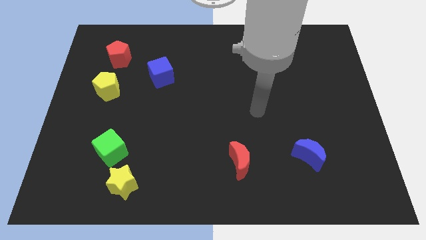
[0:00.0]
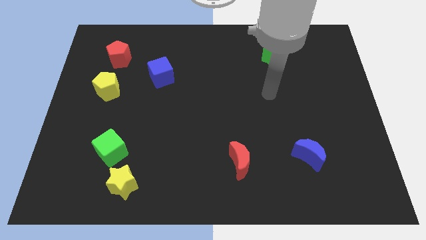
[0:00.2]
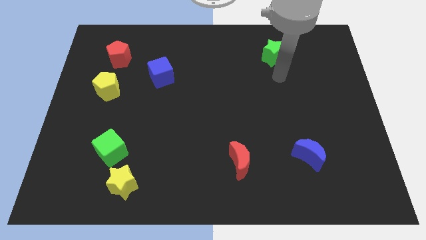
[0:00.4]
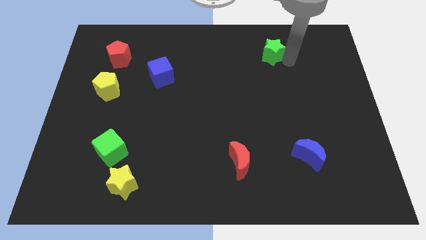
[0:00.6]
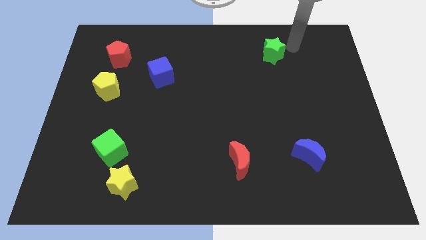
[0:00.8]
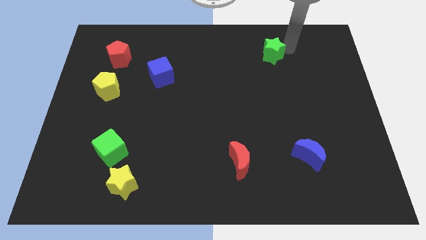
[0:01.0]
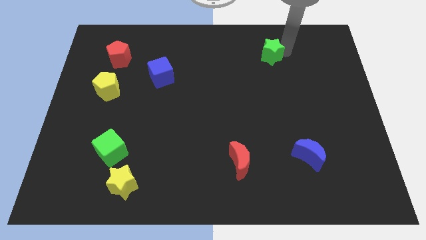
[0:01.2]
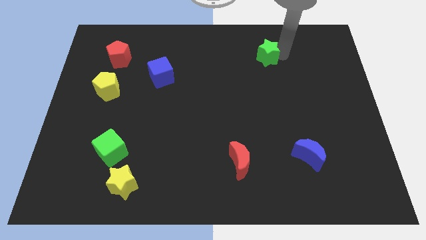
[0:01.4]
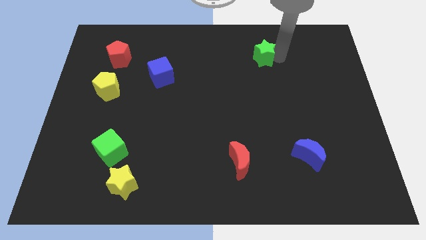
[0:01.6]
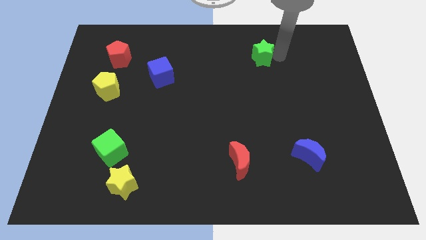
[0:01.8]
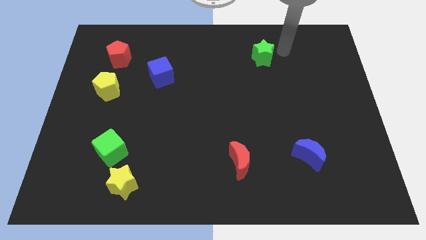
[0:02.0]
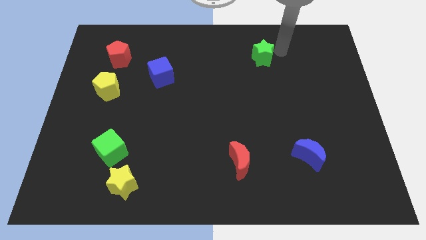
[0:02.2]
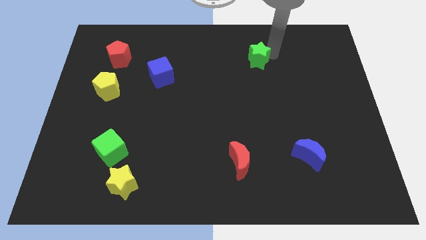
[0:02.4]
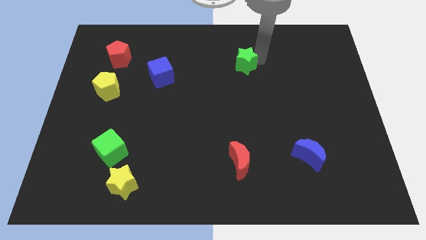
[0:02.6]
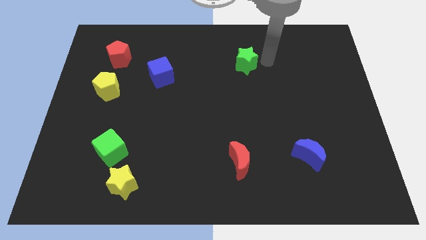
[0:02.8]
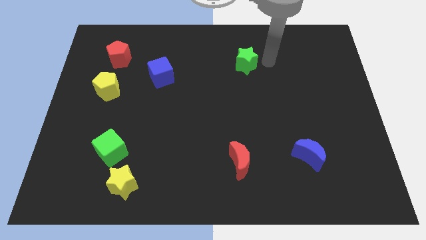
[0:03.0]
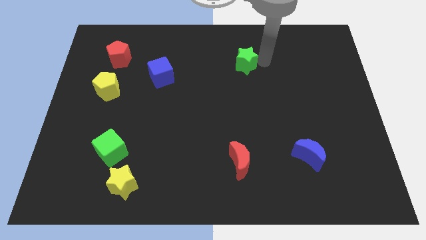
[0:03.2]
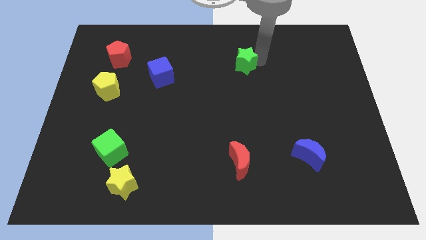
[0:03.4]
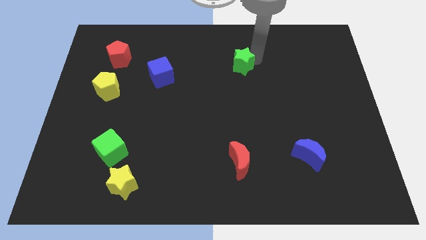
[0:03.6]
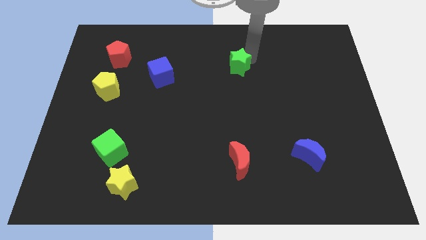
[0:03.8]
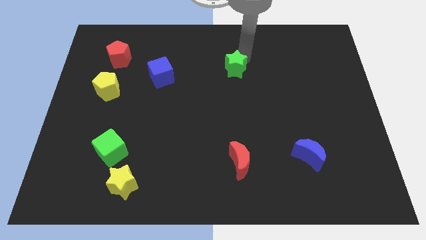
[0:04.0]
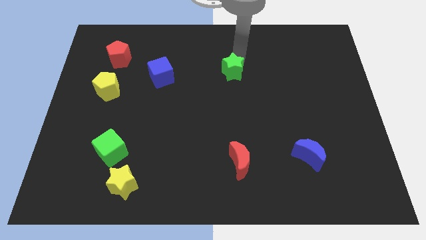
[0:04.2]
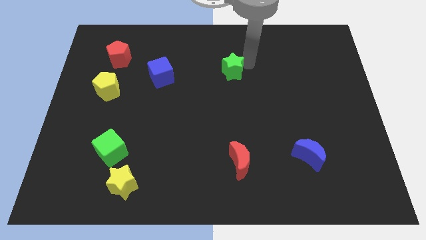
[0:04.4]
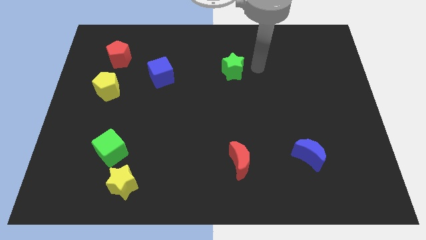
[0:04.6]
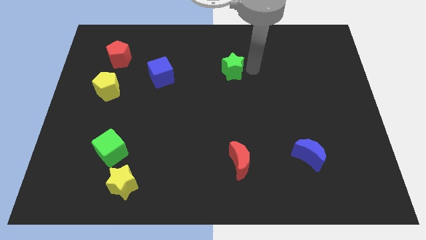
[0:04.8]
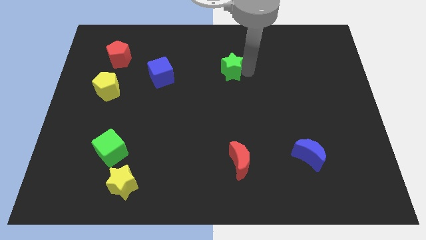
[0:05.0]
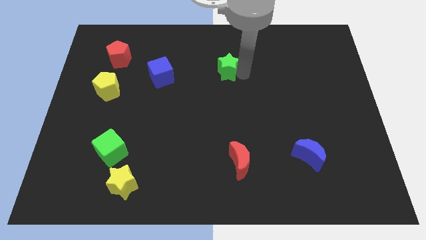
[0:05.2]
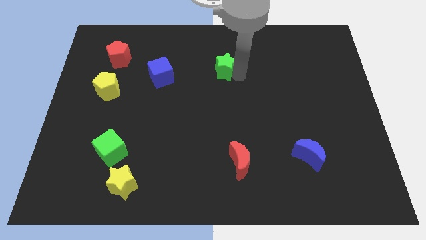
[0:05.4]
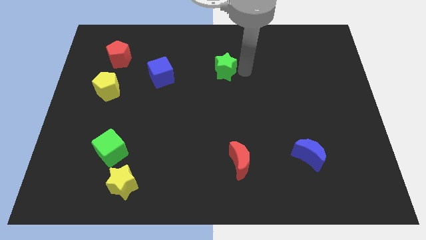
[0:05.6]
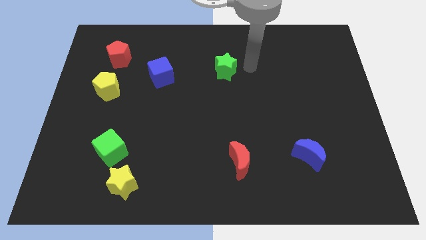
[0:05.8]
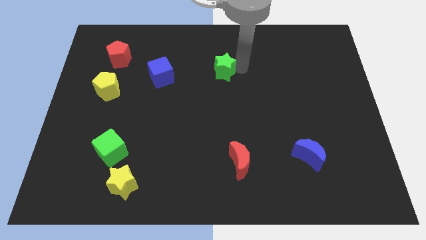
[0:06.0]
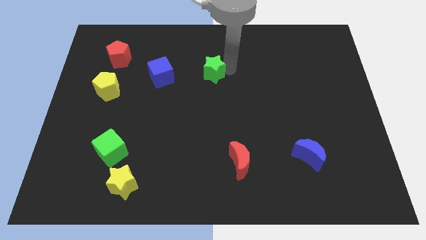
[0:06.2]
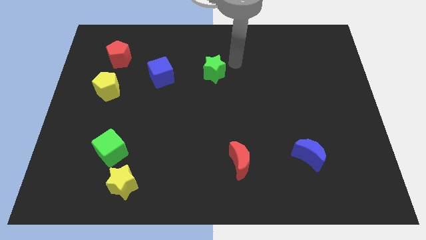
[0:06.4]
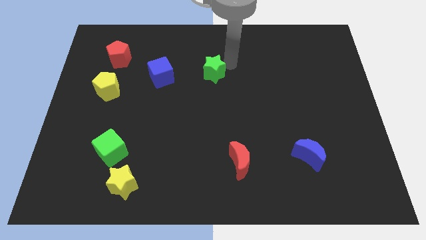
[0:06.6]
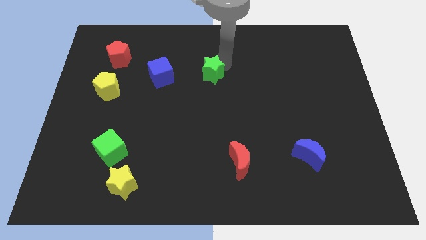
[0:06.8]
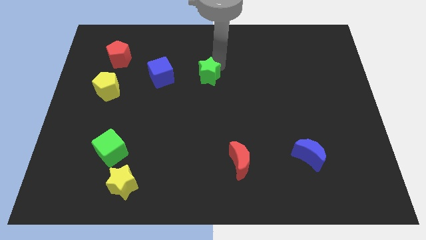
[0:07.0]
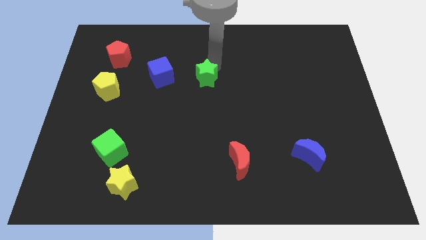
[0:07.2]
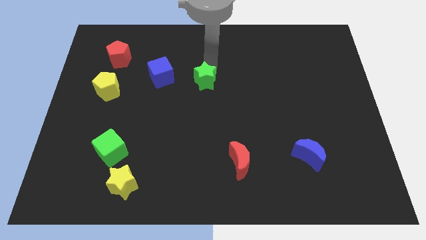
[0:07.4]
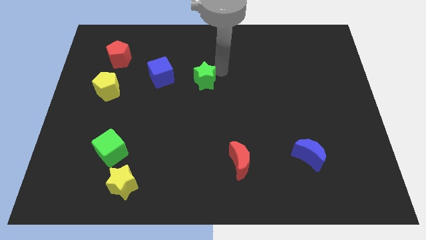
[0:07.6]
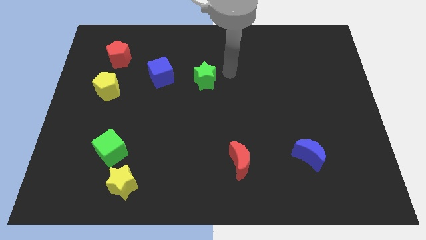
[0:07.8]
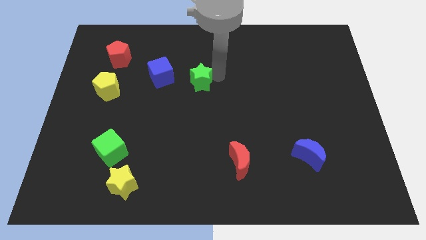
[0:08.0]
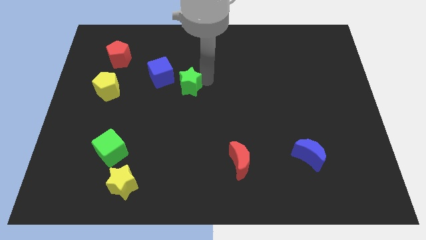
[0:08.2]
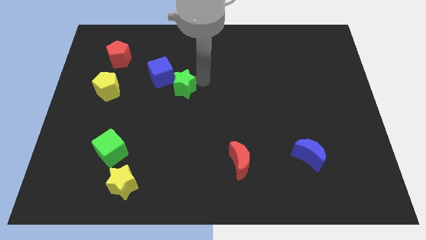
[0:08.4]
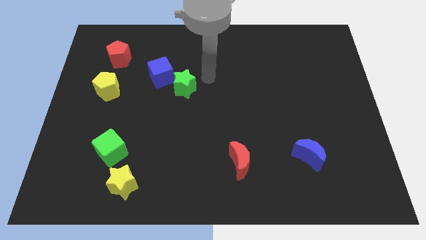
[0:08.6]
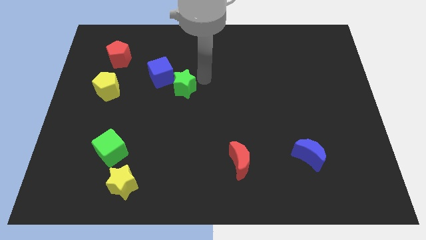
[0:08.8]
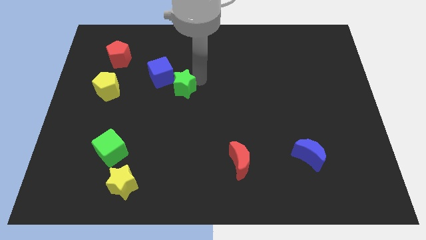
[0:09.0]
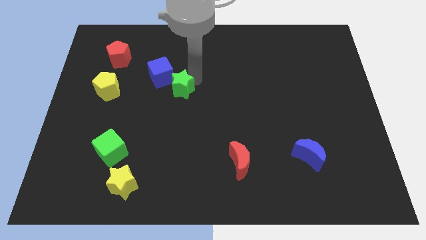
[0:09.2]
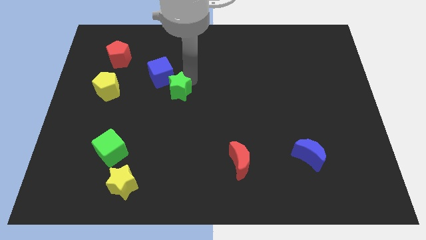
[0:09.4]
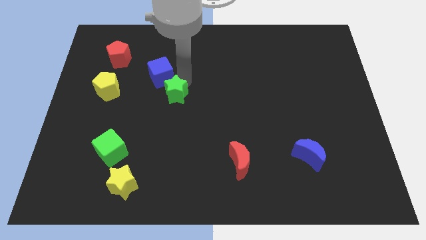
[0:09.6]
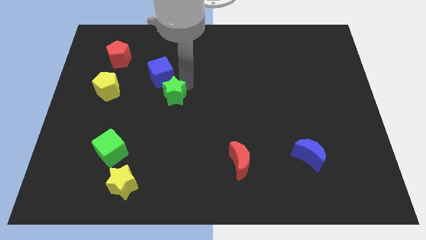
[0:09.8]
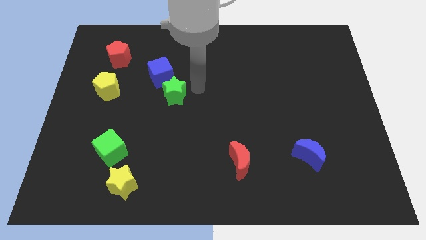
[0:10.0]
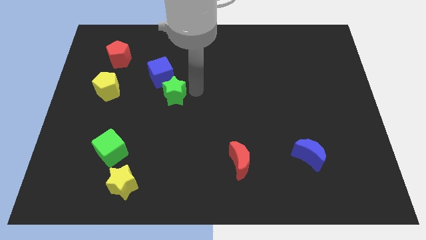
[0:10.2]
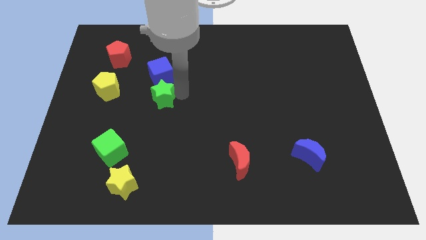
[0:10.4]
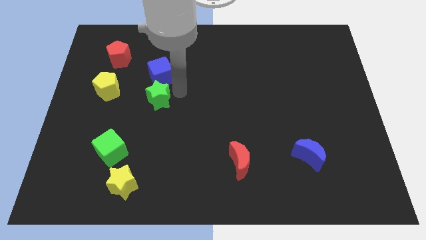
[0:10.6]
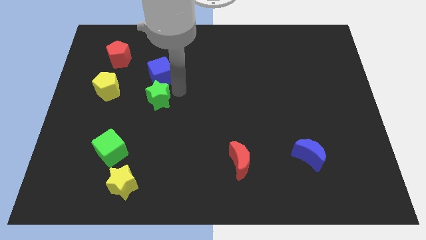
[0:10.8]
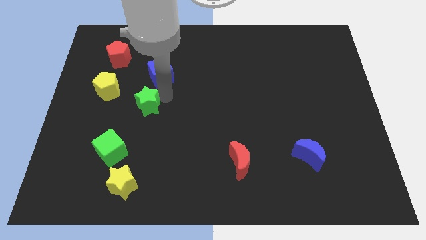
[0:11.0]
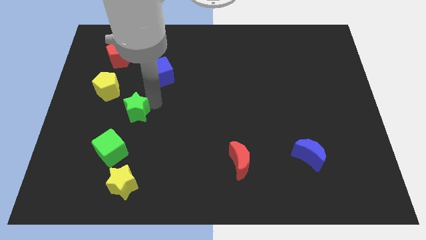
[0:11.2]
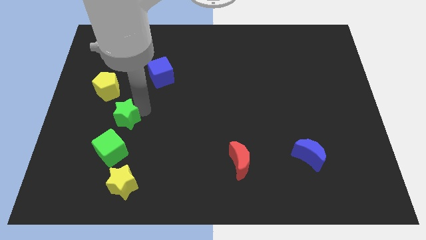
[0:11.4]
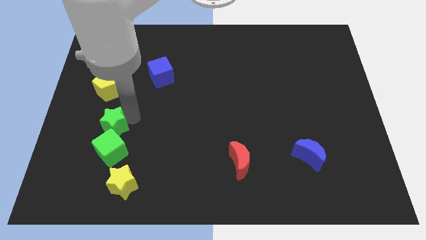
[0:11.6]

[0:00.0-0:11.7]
move the green star to the bottom side of the yellow pentagon

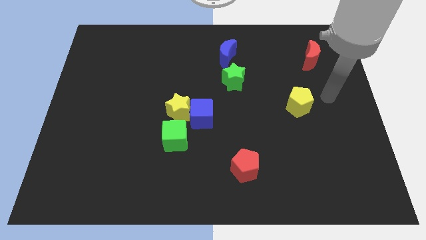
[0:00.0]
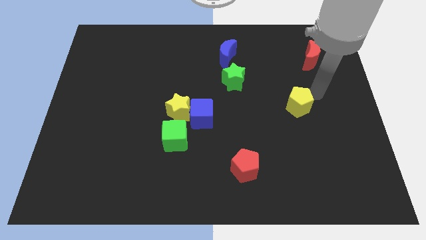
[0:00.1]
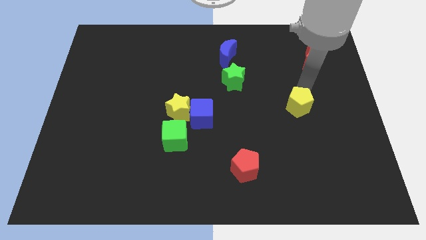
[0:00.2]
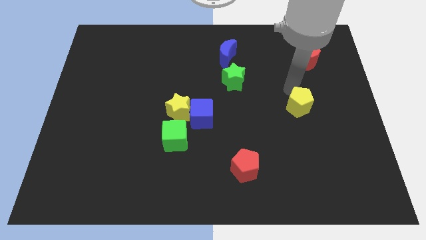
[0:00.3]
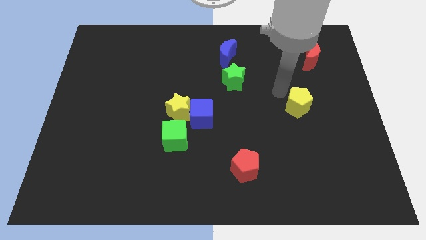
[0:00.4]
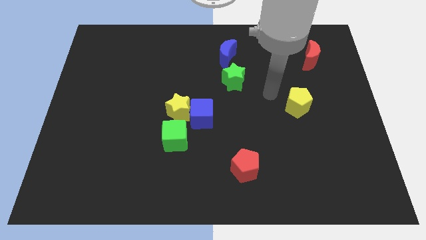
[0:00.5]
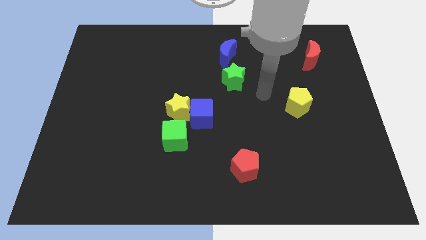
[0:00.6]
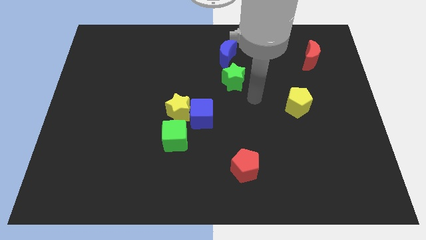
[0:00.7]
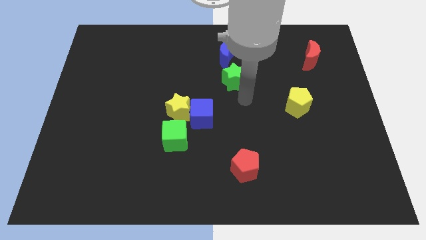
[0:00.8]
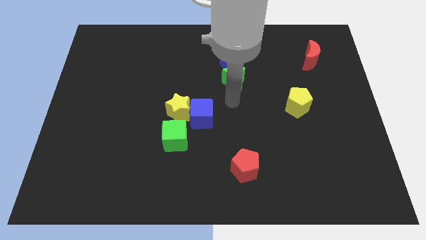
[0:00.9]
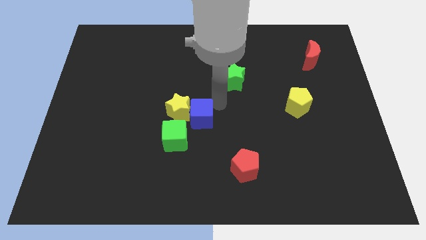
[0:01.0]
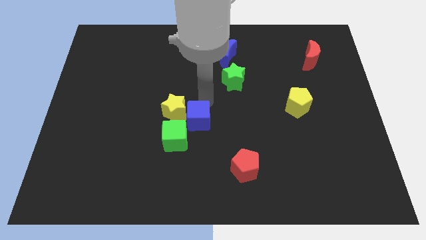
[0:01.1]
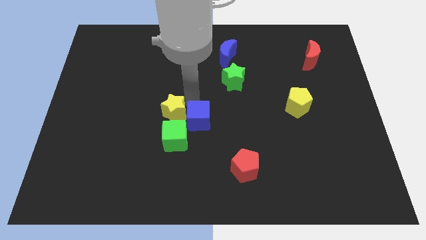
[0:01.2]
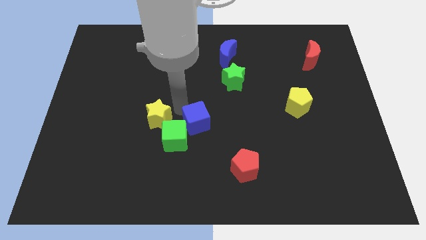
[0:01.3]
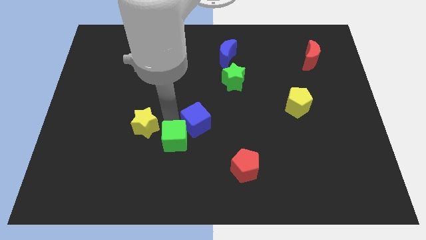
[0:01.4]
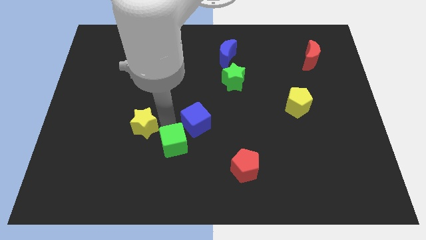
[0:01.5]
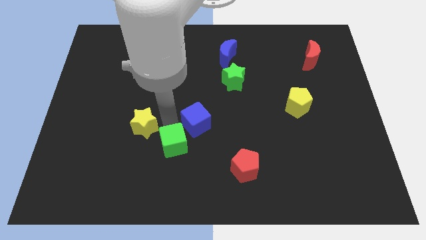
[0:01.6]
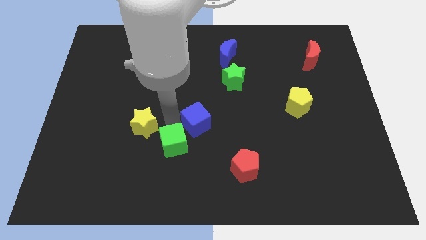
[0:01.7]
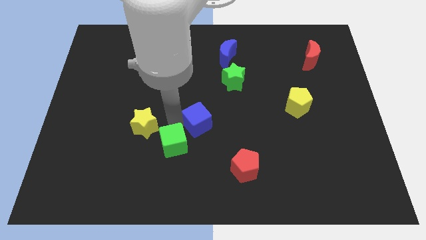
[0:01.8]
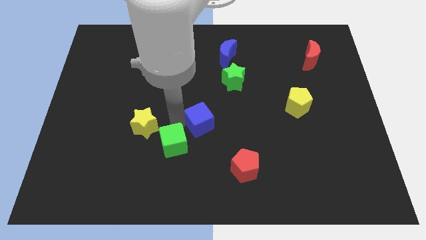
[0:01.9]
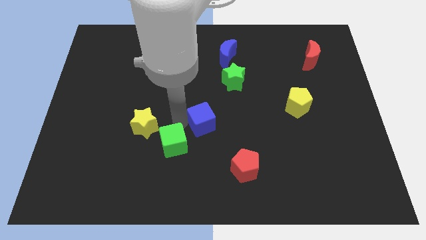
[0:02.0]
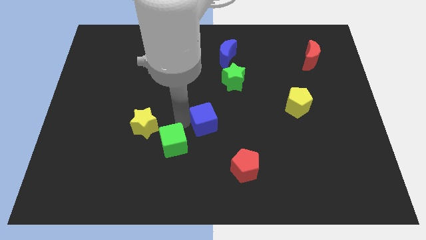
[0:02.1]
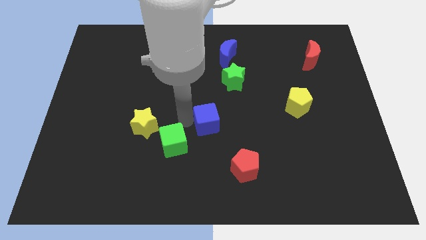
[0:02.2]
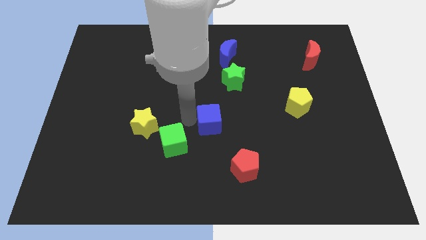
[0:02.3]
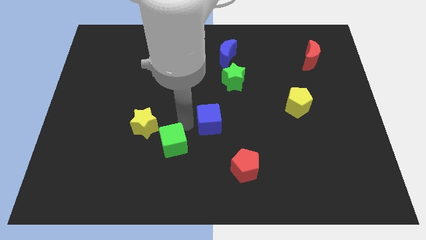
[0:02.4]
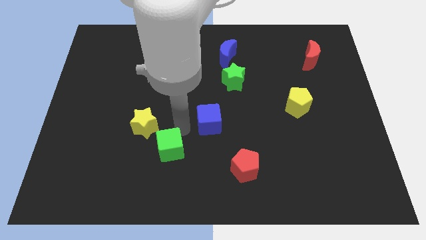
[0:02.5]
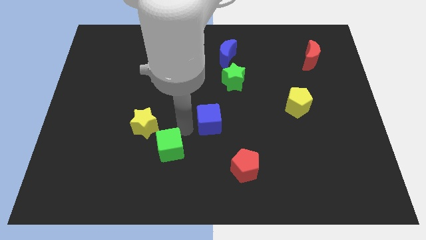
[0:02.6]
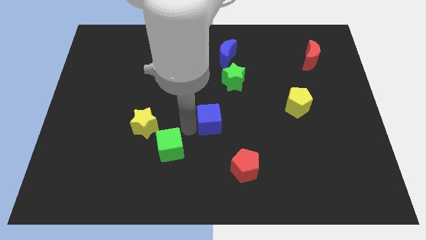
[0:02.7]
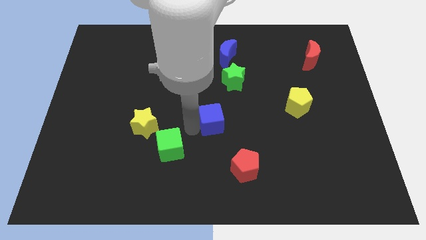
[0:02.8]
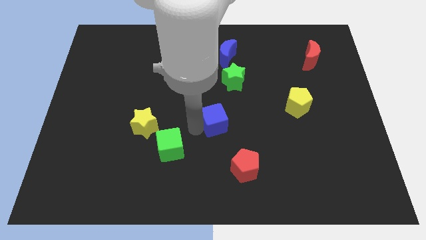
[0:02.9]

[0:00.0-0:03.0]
push the blue cube to the bottom side of the green star
